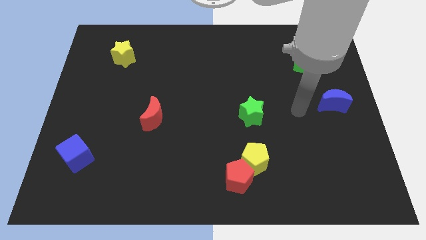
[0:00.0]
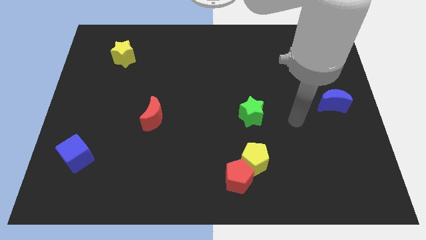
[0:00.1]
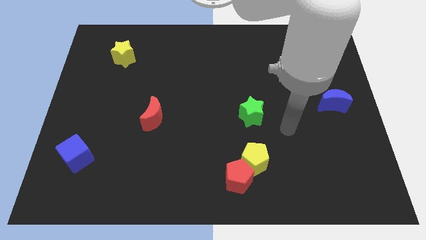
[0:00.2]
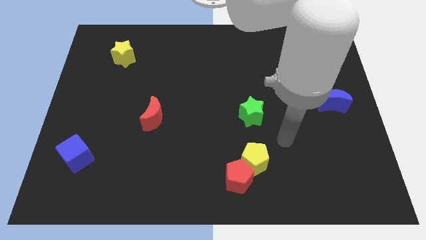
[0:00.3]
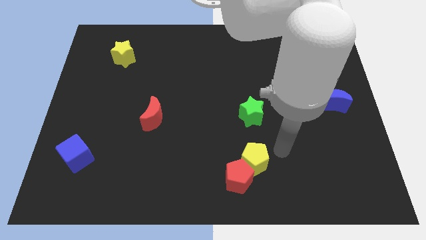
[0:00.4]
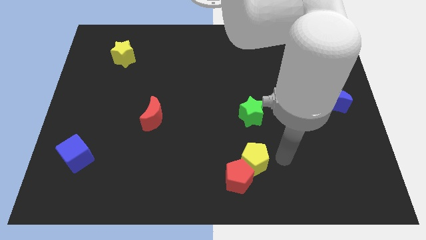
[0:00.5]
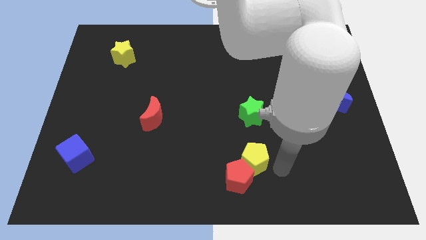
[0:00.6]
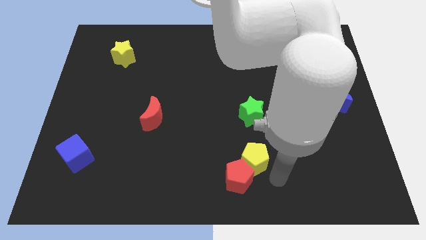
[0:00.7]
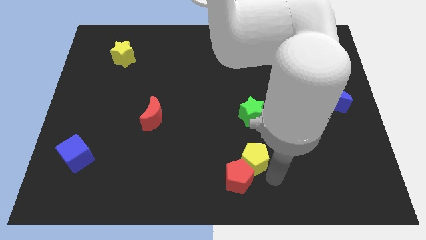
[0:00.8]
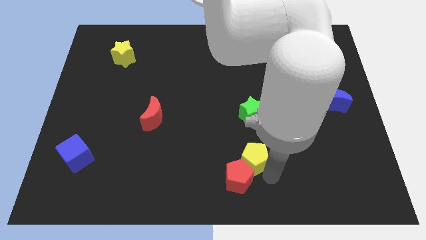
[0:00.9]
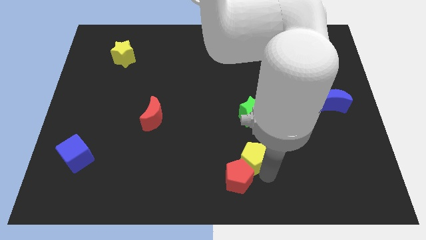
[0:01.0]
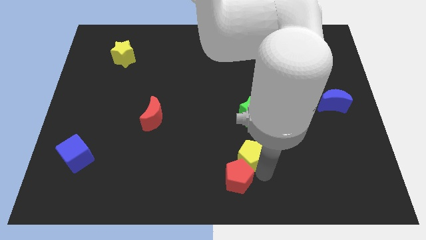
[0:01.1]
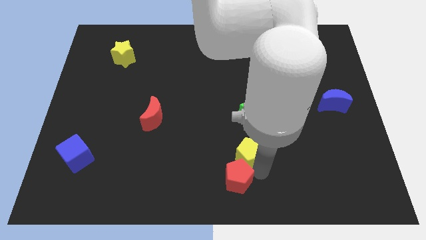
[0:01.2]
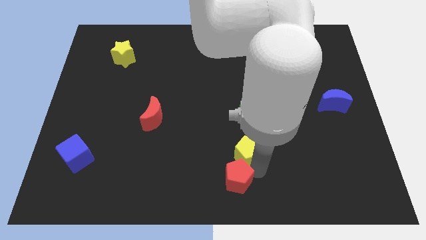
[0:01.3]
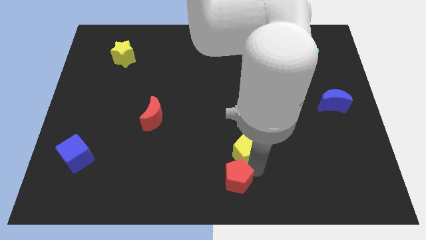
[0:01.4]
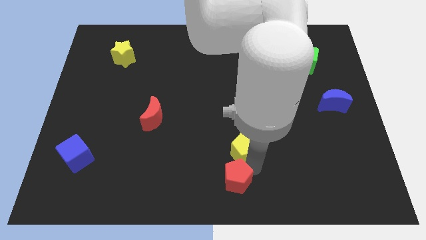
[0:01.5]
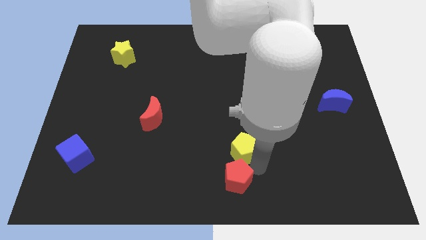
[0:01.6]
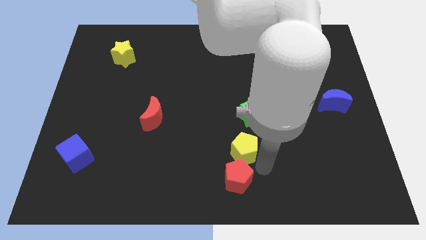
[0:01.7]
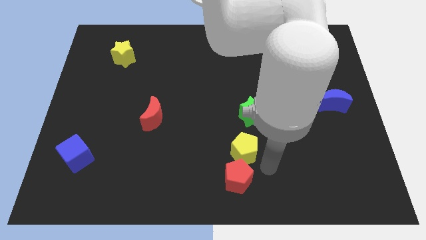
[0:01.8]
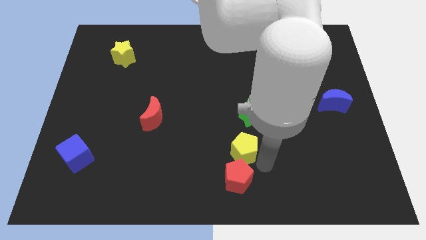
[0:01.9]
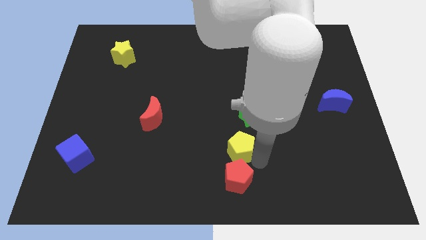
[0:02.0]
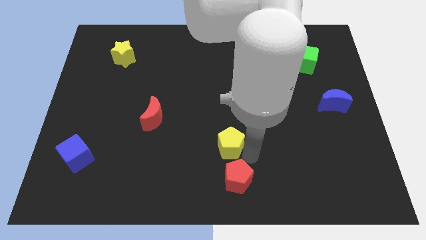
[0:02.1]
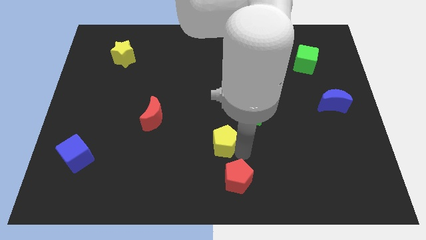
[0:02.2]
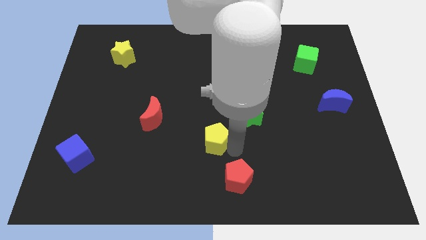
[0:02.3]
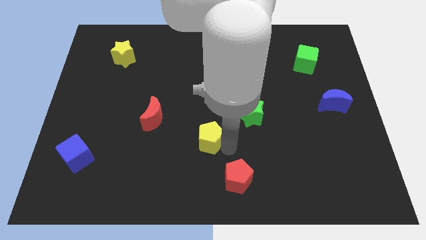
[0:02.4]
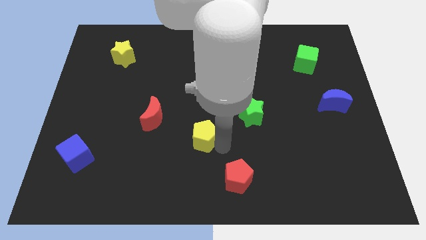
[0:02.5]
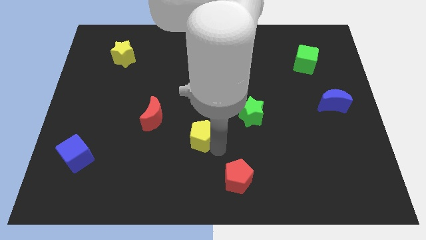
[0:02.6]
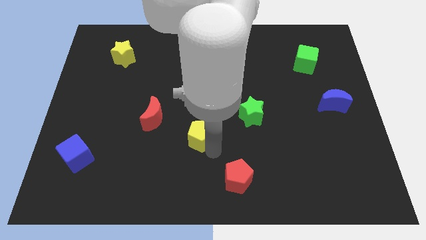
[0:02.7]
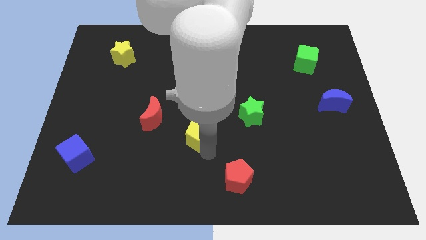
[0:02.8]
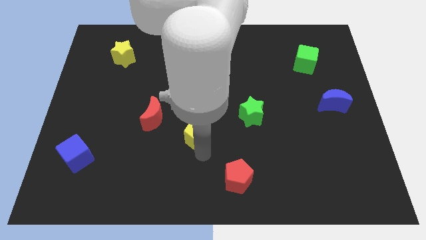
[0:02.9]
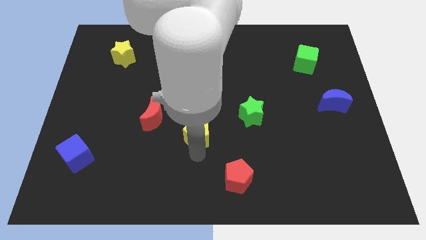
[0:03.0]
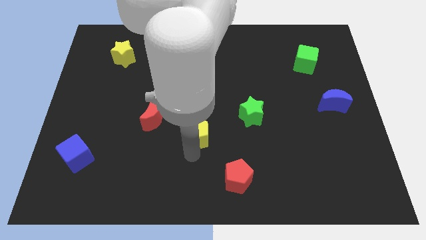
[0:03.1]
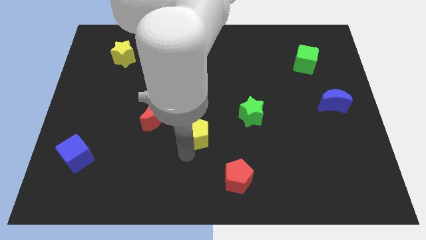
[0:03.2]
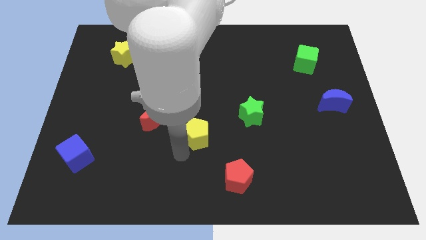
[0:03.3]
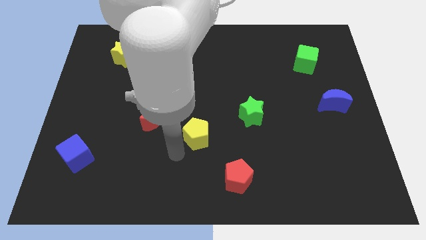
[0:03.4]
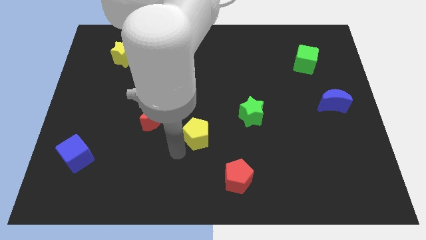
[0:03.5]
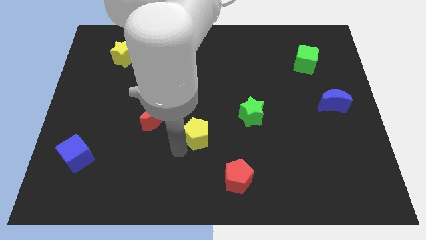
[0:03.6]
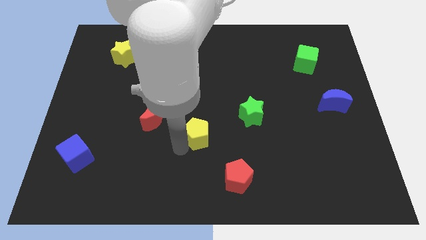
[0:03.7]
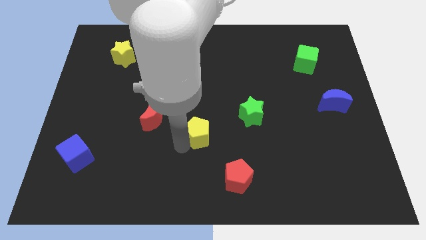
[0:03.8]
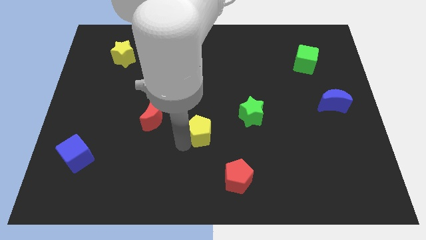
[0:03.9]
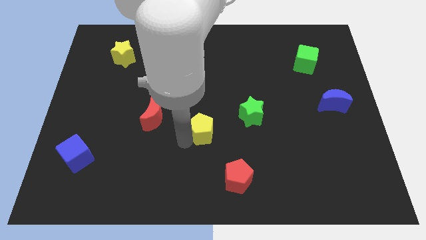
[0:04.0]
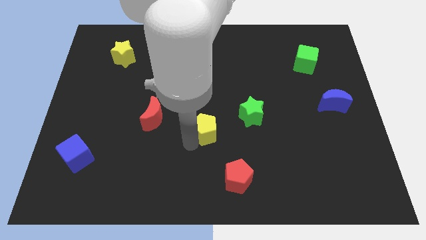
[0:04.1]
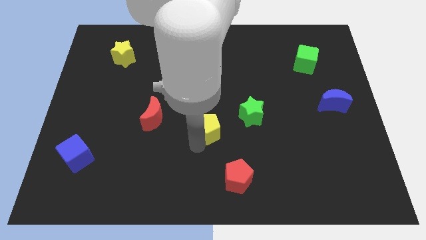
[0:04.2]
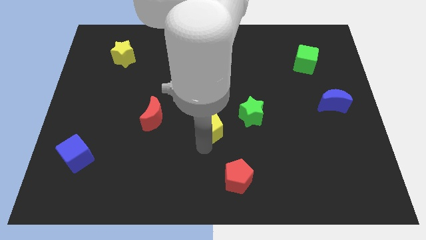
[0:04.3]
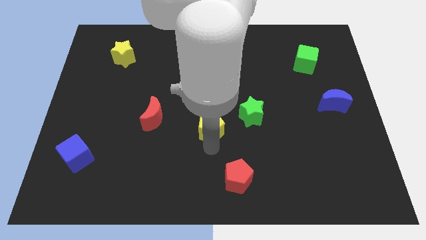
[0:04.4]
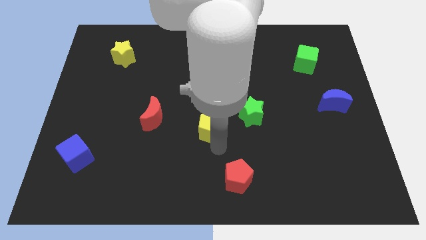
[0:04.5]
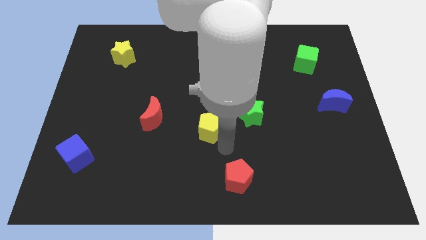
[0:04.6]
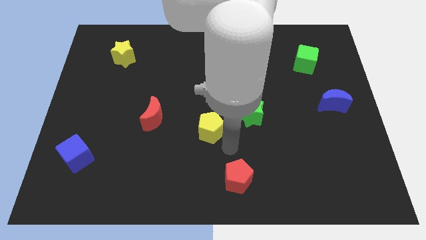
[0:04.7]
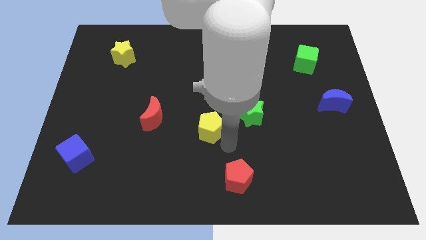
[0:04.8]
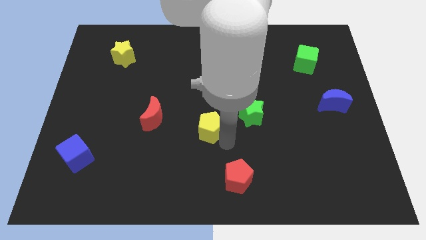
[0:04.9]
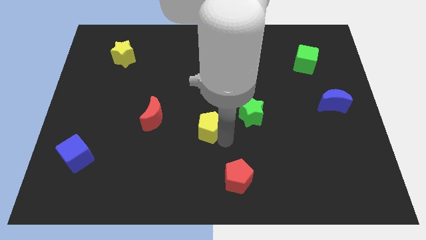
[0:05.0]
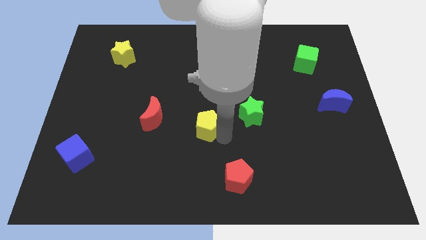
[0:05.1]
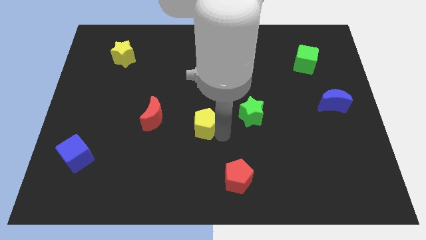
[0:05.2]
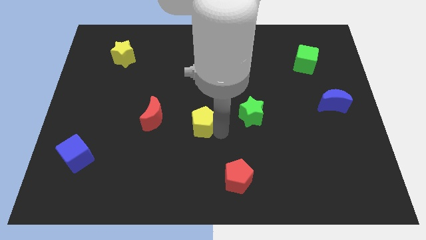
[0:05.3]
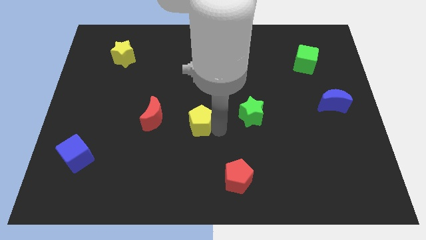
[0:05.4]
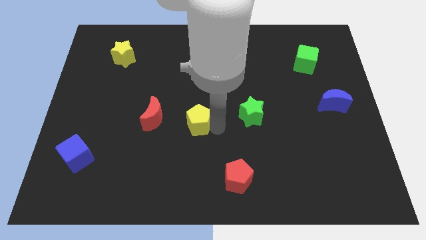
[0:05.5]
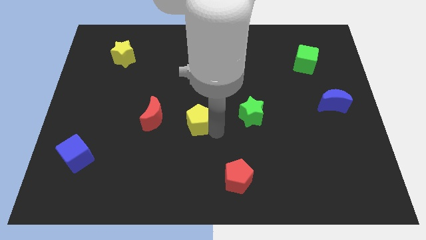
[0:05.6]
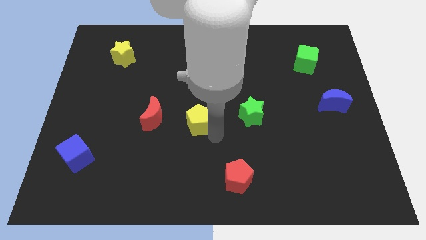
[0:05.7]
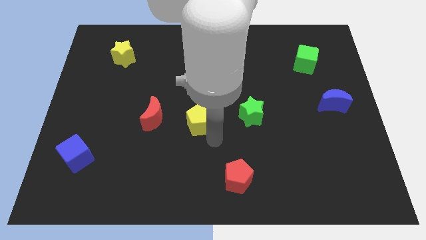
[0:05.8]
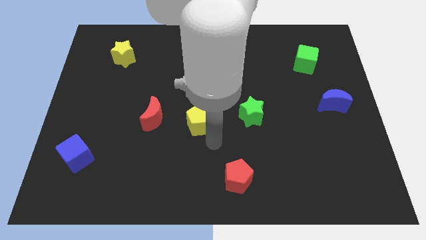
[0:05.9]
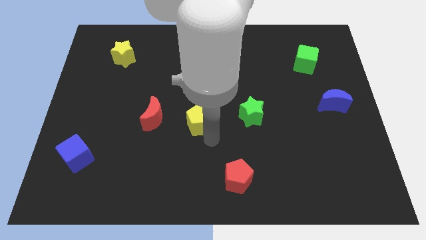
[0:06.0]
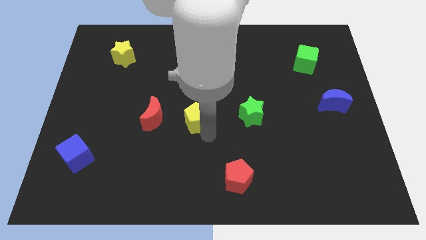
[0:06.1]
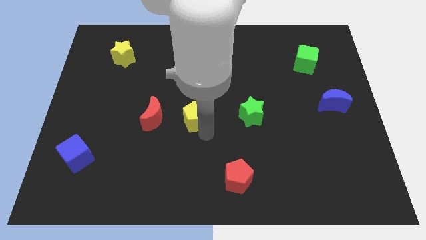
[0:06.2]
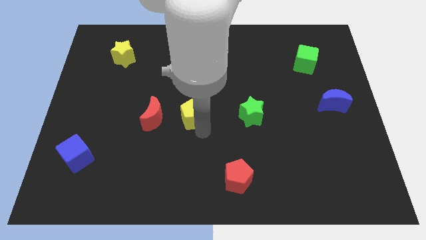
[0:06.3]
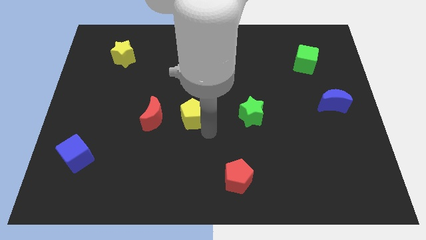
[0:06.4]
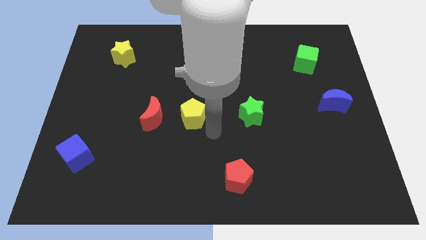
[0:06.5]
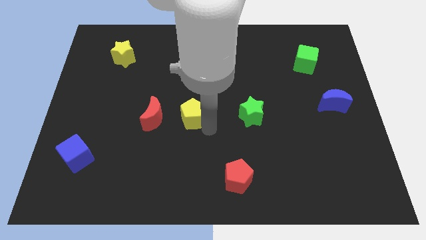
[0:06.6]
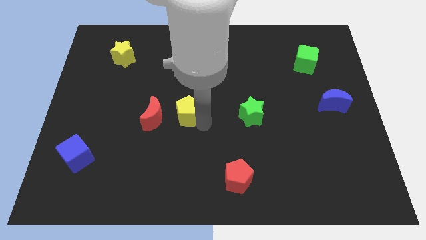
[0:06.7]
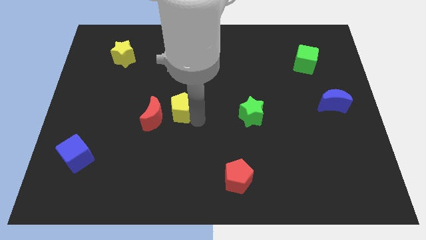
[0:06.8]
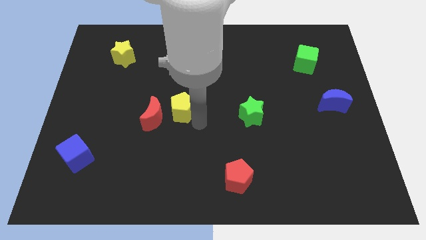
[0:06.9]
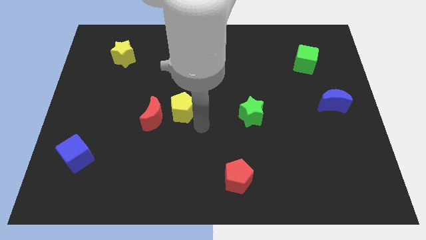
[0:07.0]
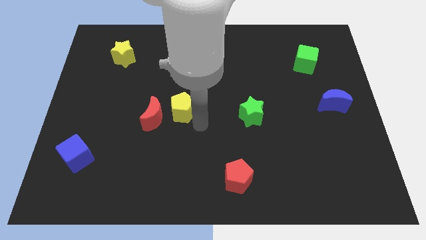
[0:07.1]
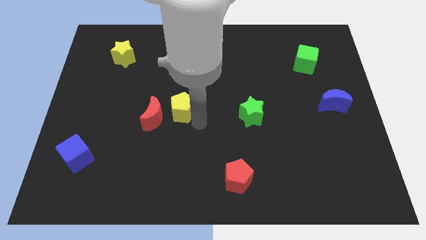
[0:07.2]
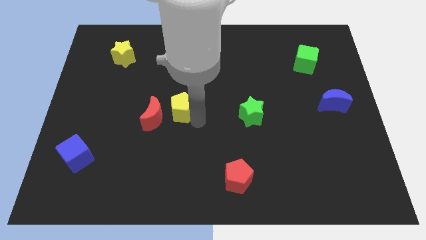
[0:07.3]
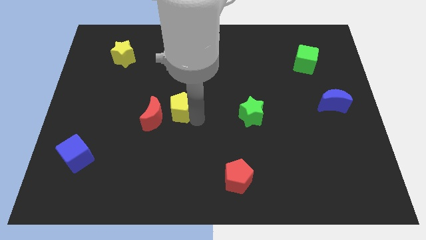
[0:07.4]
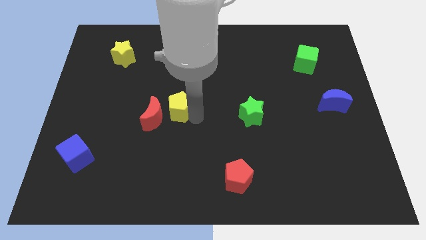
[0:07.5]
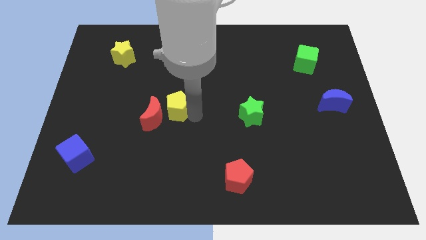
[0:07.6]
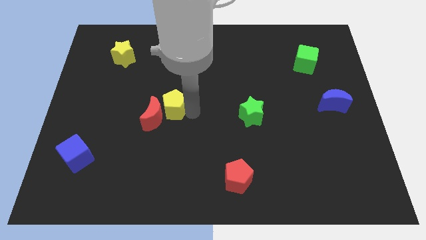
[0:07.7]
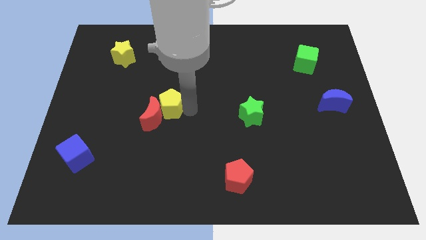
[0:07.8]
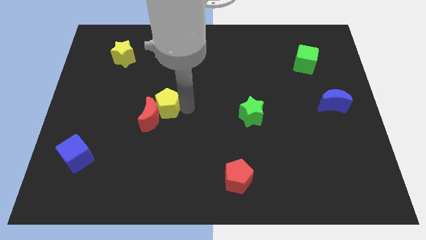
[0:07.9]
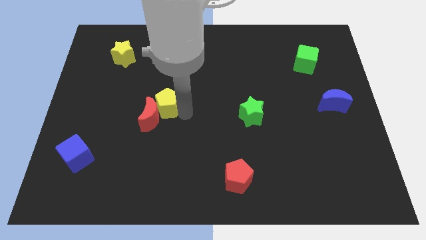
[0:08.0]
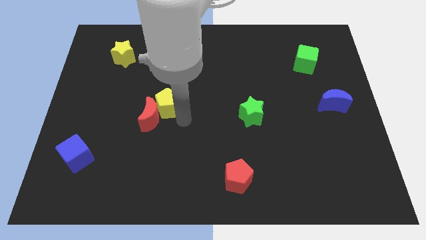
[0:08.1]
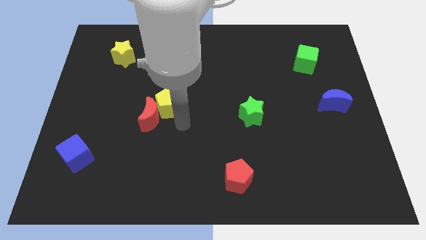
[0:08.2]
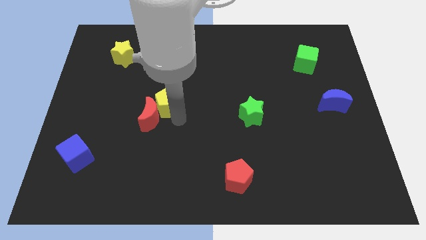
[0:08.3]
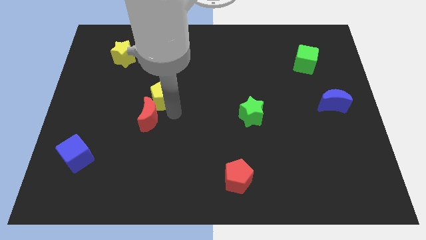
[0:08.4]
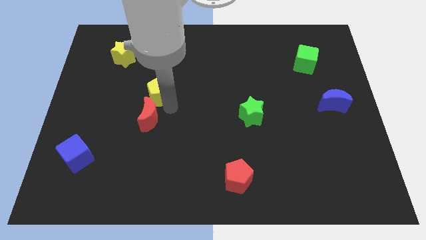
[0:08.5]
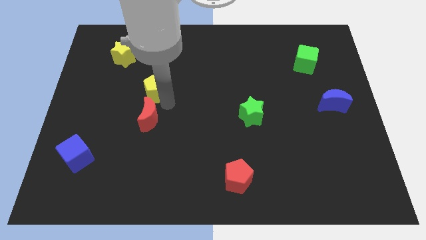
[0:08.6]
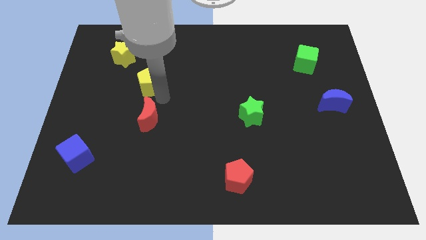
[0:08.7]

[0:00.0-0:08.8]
push the yellow pentagon to the bottom right of the yellow star
